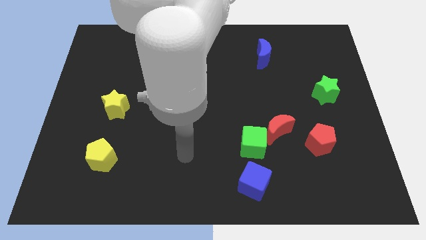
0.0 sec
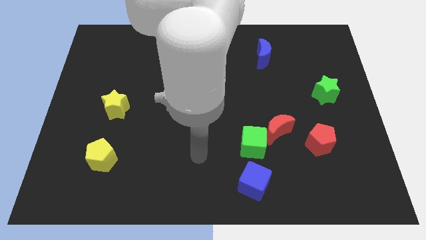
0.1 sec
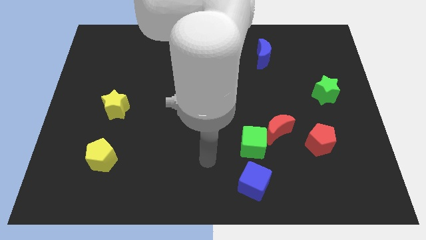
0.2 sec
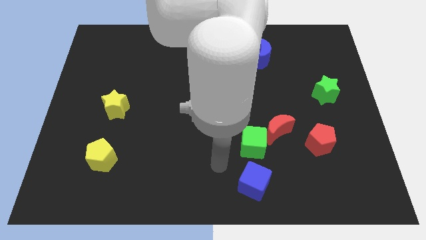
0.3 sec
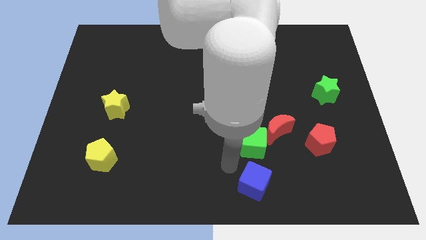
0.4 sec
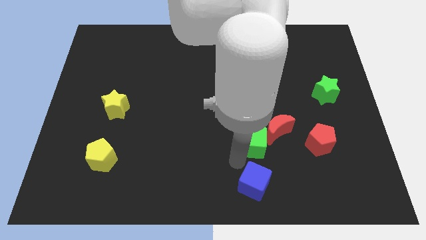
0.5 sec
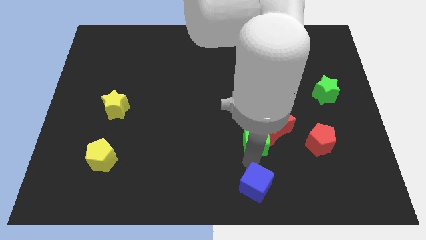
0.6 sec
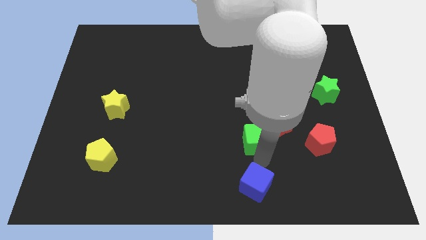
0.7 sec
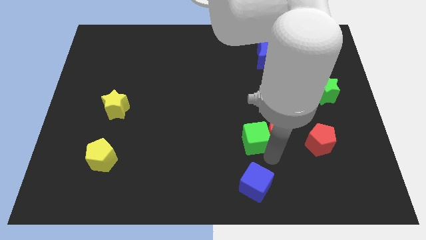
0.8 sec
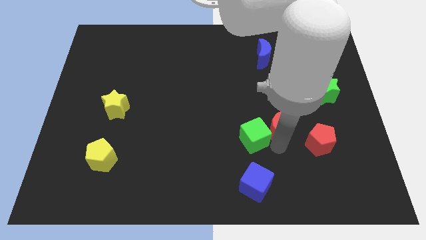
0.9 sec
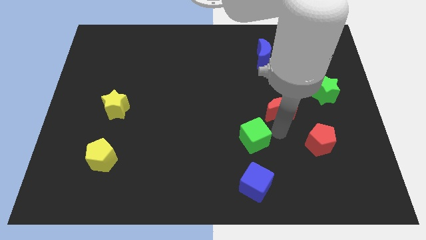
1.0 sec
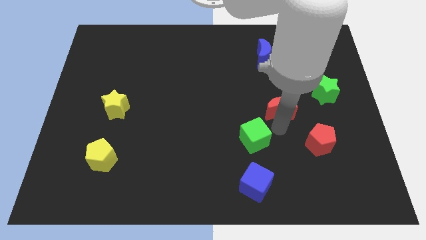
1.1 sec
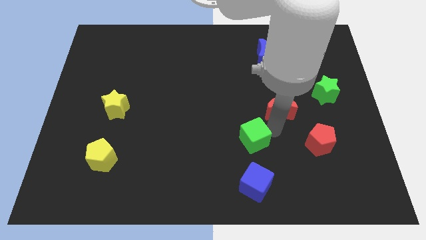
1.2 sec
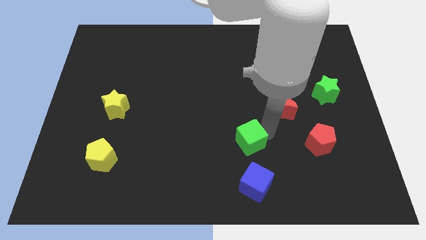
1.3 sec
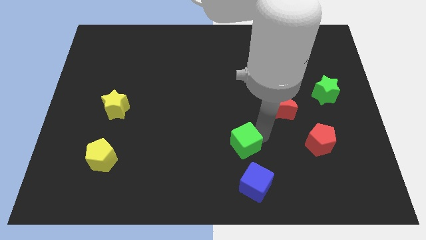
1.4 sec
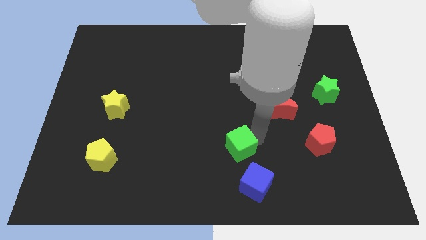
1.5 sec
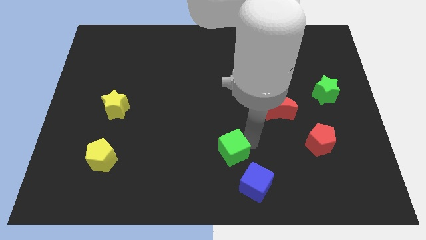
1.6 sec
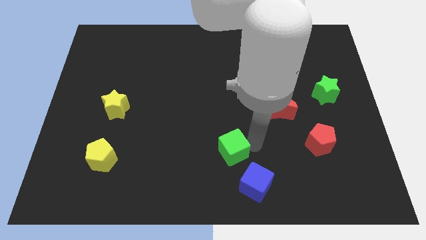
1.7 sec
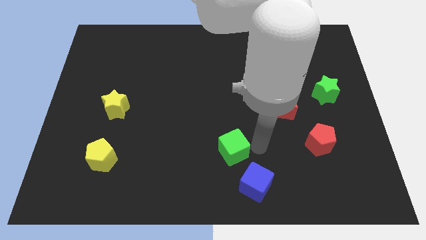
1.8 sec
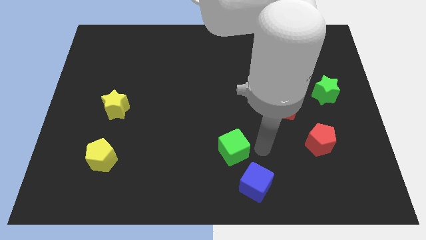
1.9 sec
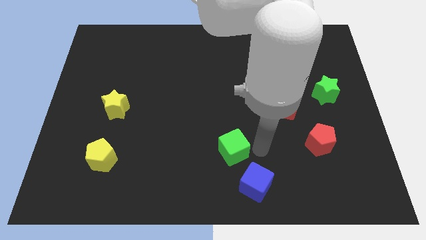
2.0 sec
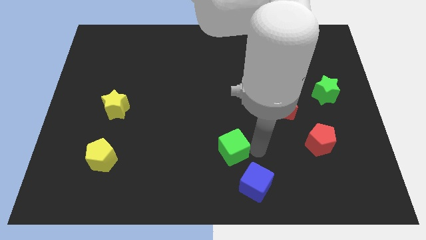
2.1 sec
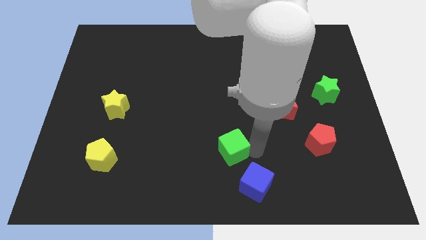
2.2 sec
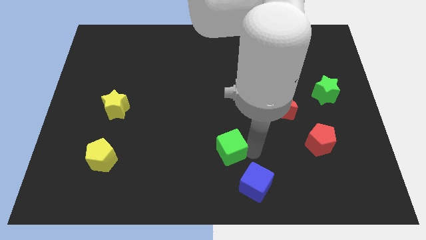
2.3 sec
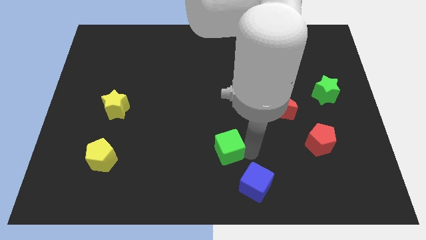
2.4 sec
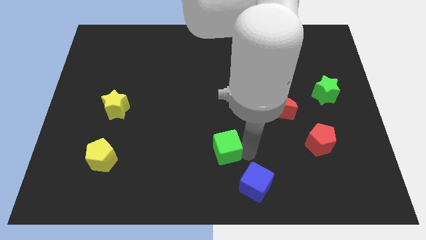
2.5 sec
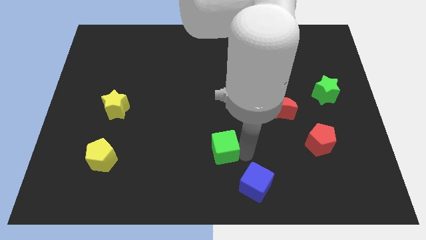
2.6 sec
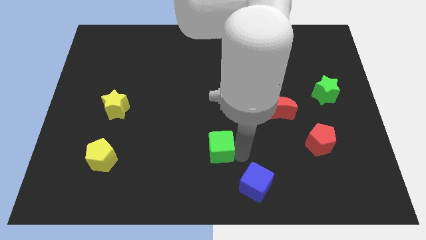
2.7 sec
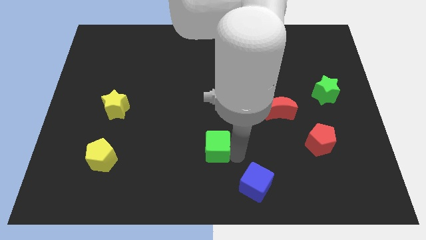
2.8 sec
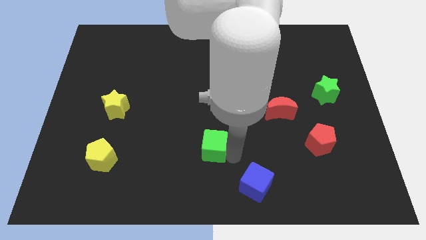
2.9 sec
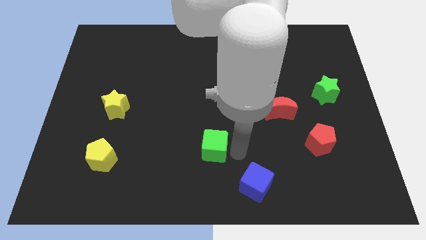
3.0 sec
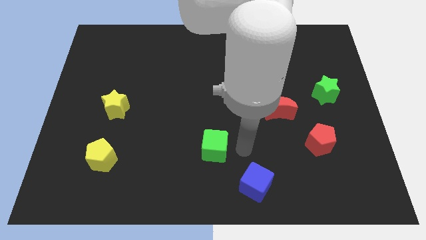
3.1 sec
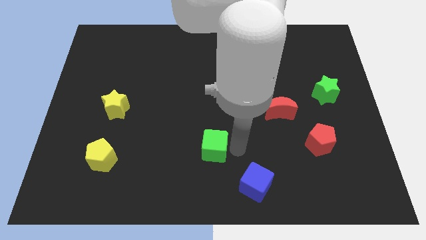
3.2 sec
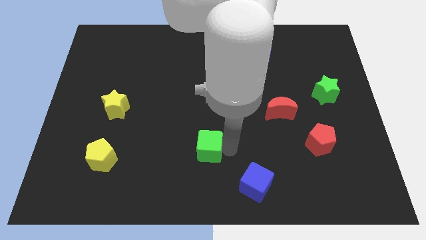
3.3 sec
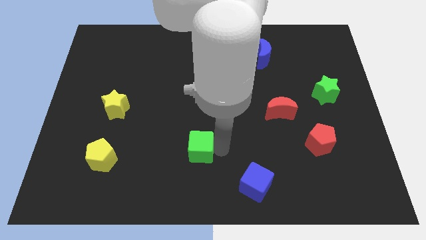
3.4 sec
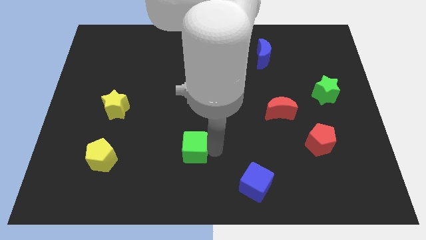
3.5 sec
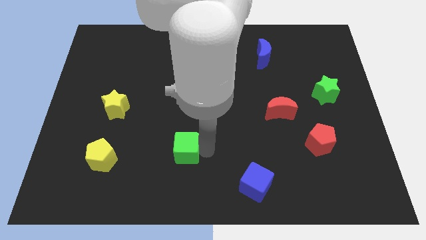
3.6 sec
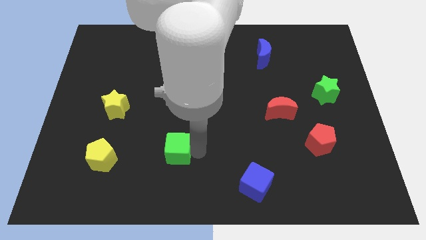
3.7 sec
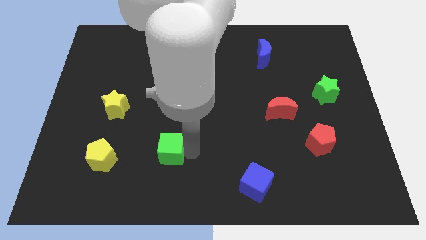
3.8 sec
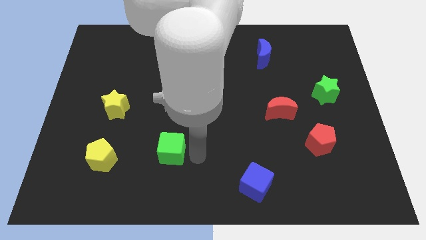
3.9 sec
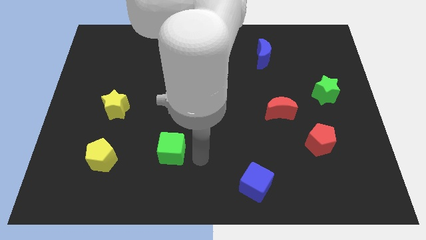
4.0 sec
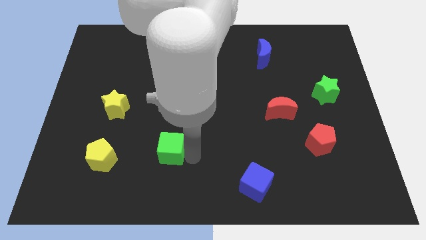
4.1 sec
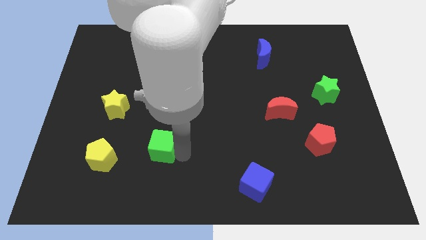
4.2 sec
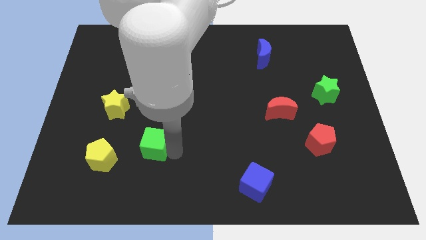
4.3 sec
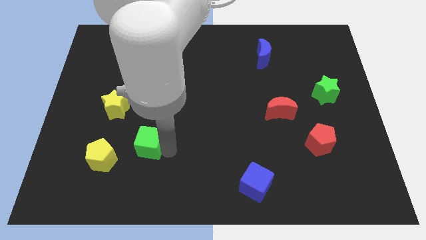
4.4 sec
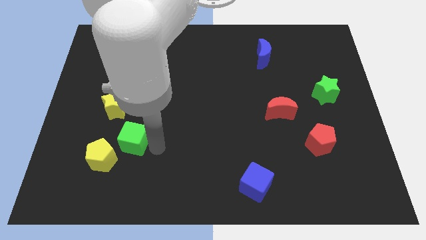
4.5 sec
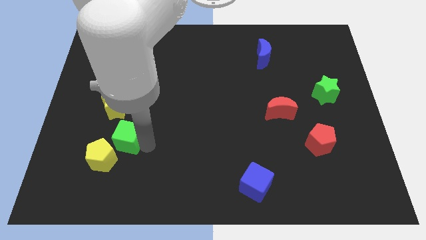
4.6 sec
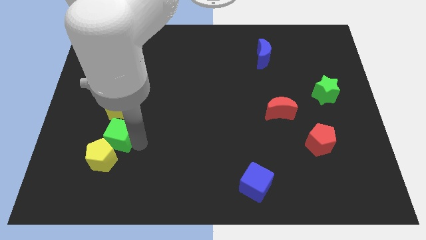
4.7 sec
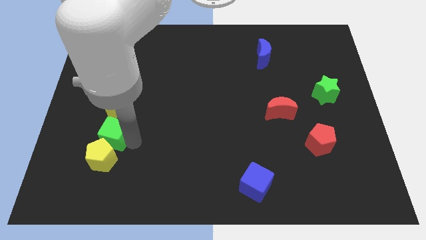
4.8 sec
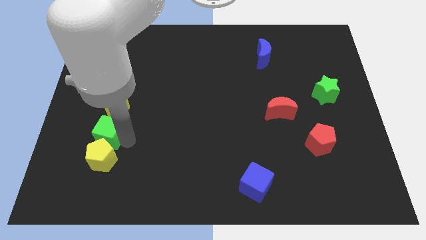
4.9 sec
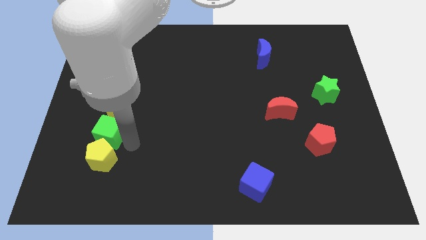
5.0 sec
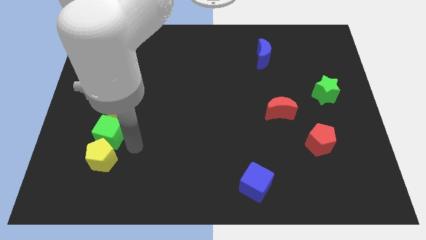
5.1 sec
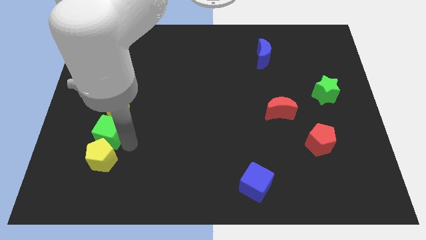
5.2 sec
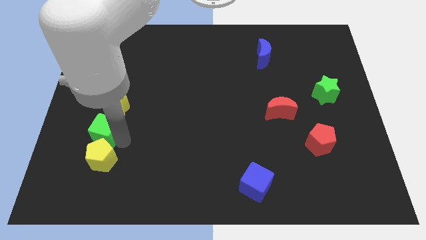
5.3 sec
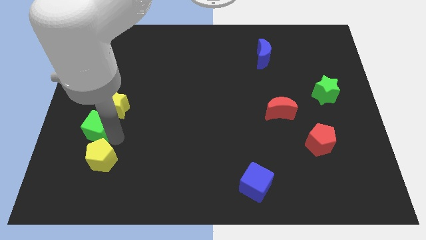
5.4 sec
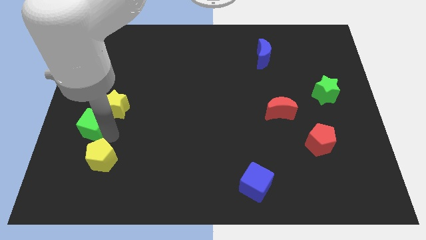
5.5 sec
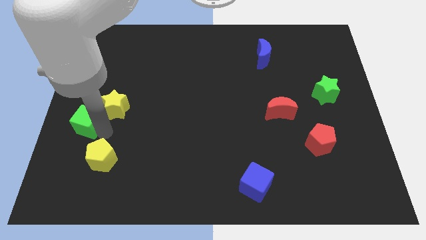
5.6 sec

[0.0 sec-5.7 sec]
push the green cube to the left side of the board
